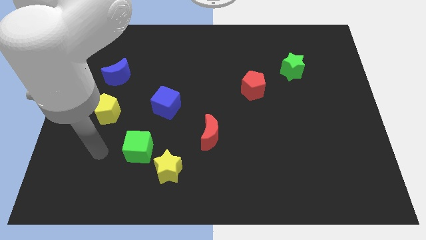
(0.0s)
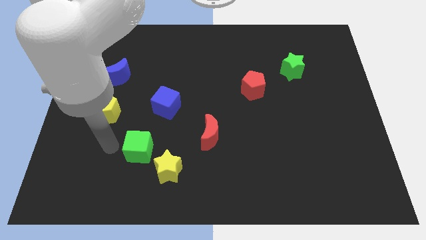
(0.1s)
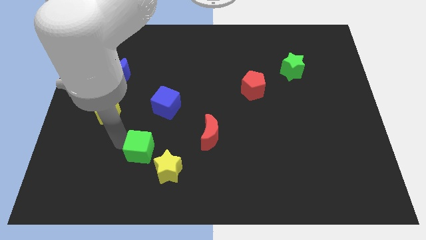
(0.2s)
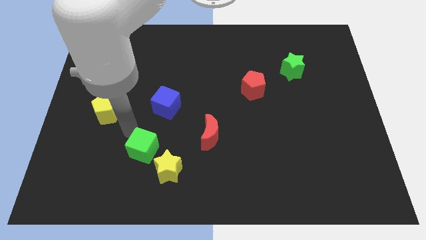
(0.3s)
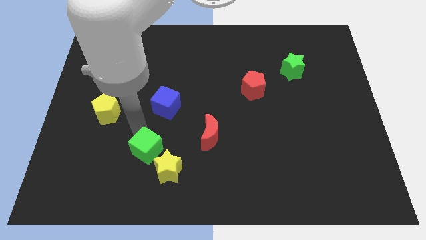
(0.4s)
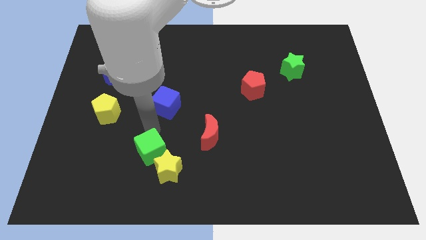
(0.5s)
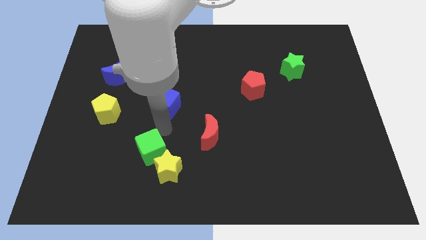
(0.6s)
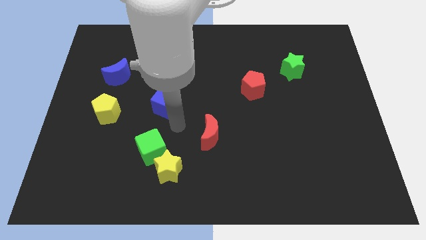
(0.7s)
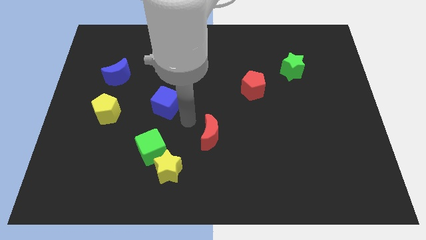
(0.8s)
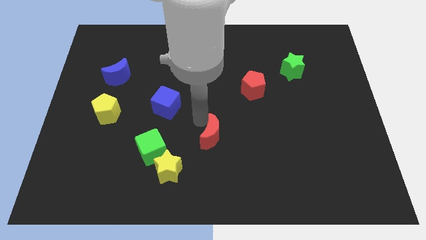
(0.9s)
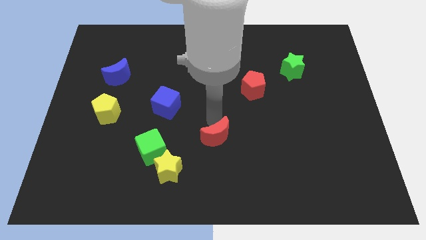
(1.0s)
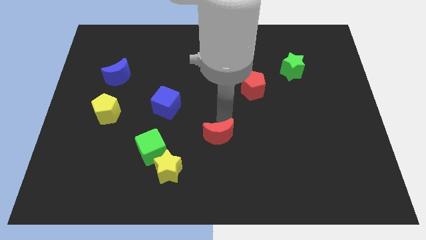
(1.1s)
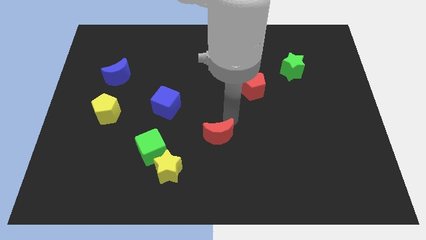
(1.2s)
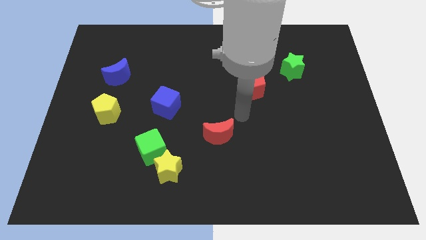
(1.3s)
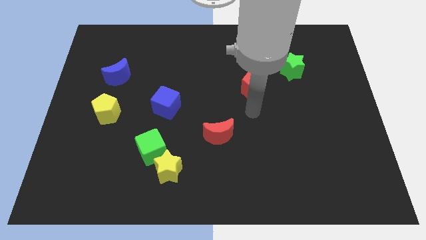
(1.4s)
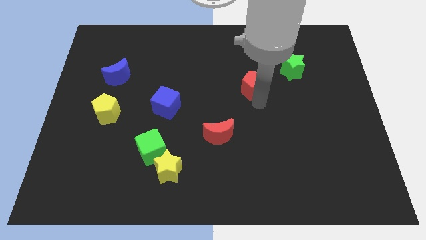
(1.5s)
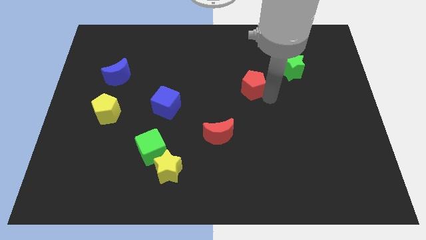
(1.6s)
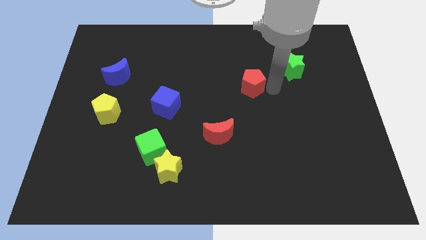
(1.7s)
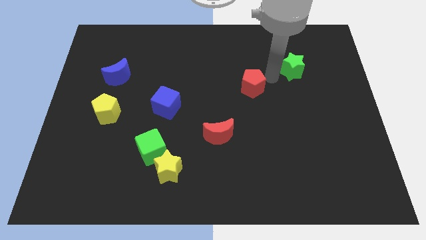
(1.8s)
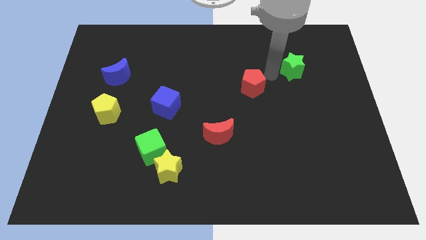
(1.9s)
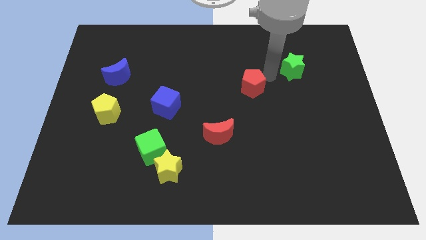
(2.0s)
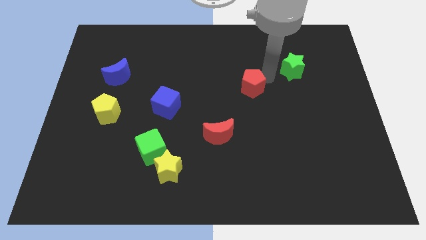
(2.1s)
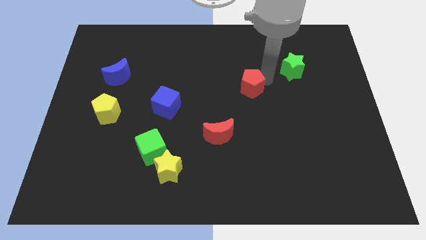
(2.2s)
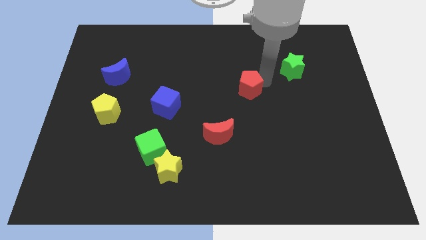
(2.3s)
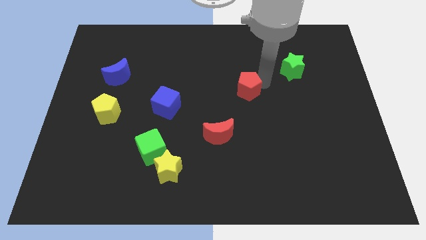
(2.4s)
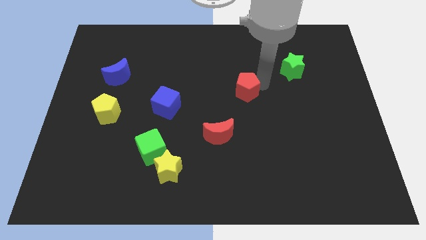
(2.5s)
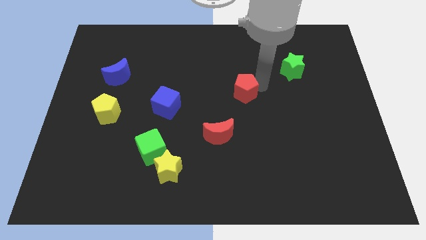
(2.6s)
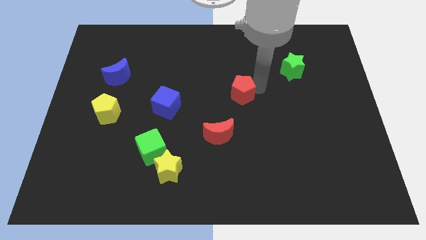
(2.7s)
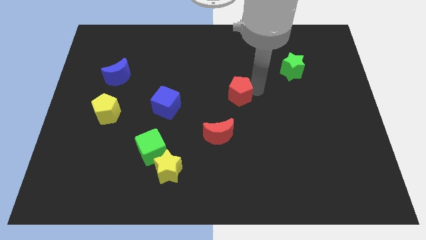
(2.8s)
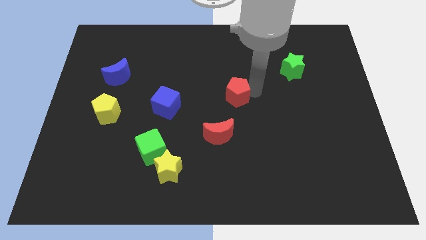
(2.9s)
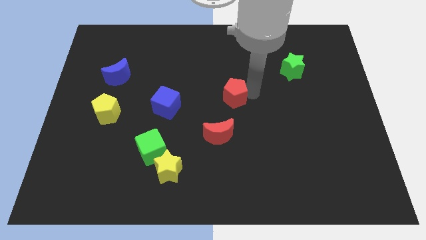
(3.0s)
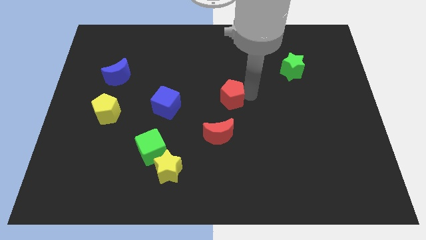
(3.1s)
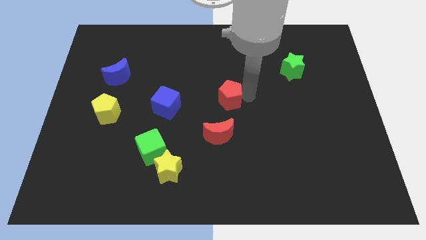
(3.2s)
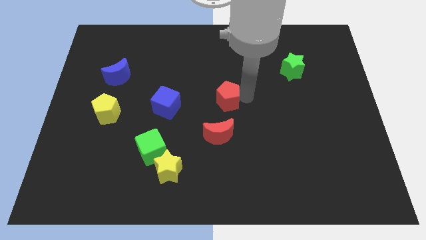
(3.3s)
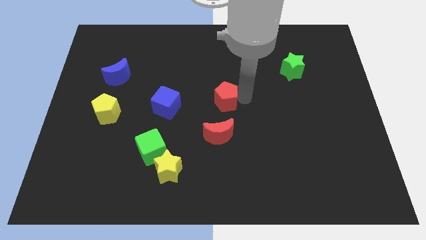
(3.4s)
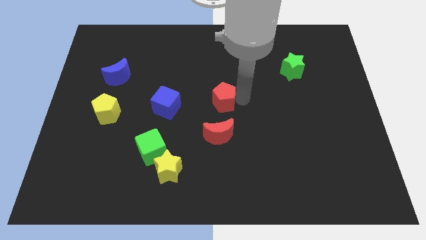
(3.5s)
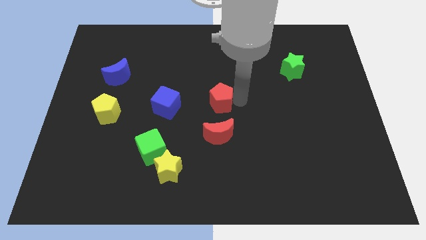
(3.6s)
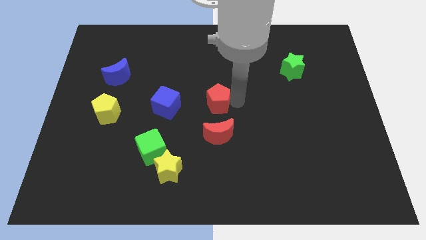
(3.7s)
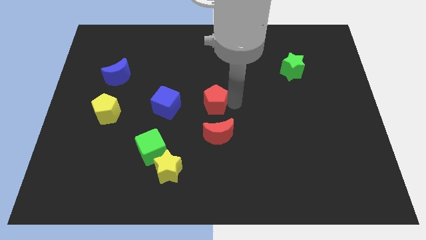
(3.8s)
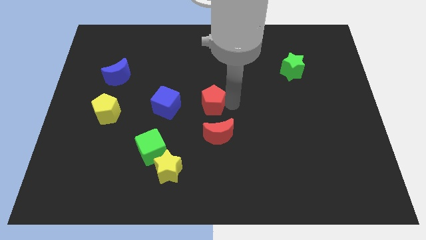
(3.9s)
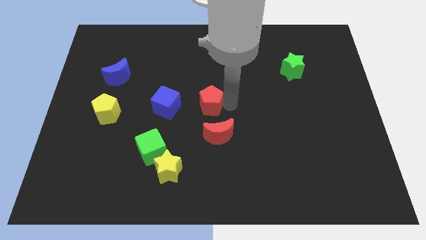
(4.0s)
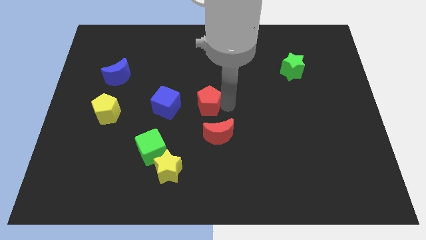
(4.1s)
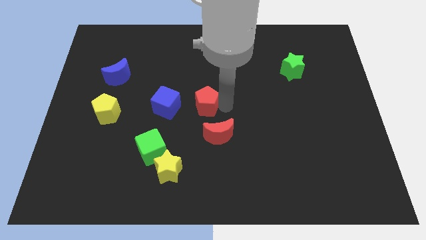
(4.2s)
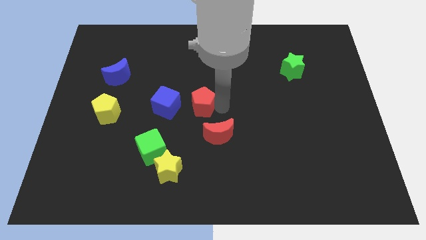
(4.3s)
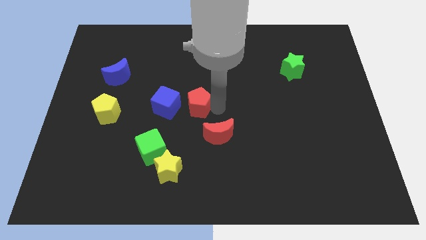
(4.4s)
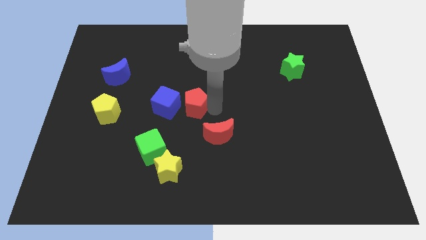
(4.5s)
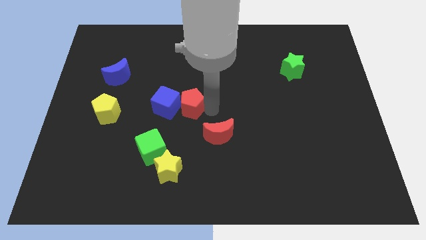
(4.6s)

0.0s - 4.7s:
put the red pentagon next to the blue cube

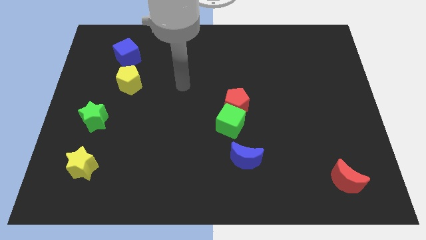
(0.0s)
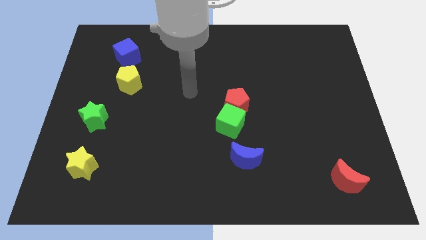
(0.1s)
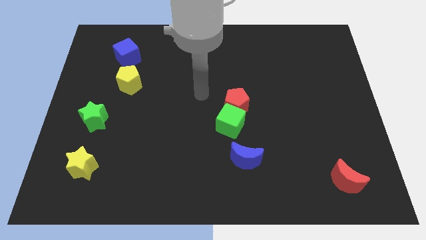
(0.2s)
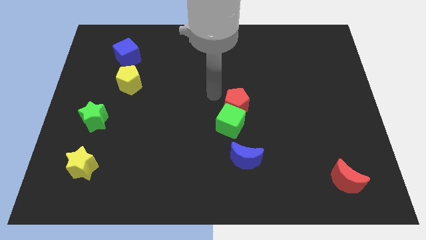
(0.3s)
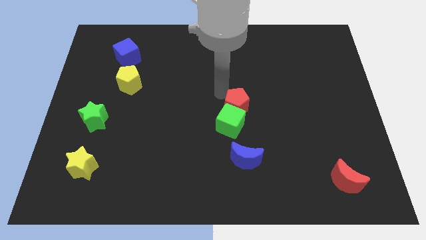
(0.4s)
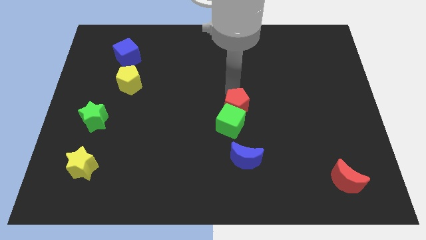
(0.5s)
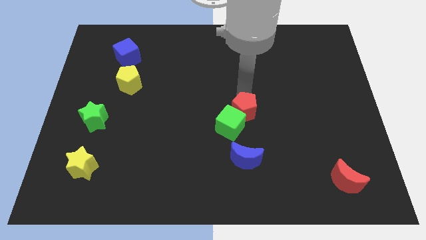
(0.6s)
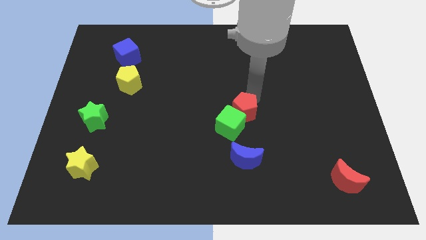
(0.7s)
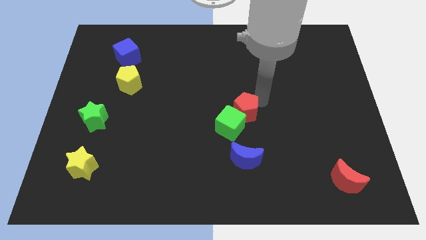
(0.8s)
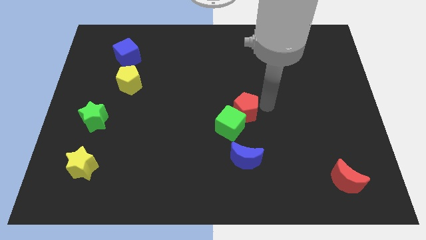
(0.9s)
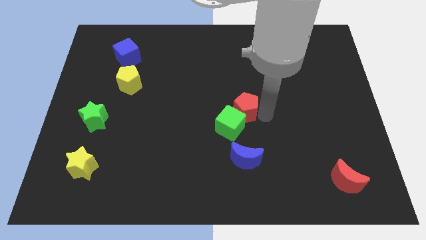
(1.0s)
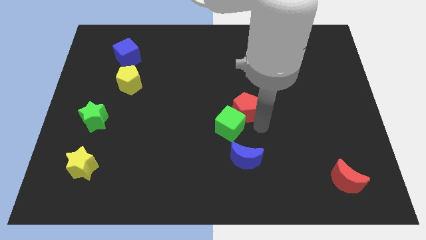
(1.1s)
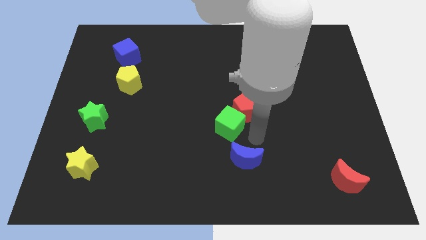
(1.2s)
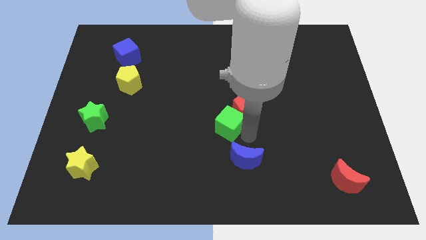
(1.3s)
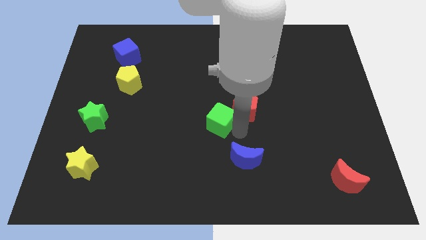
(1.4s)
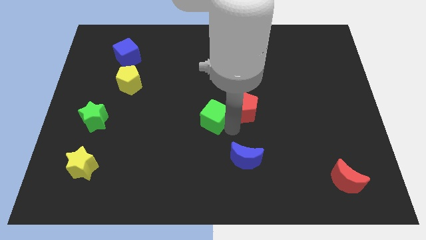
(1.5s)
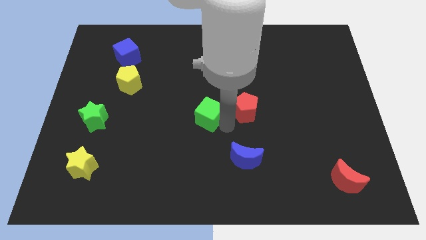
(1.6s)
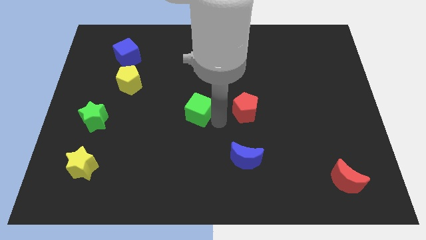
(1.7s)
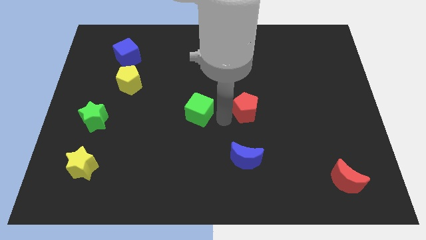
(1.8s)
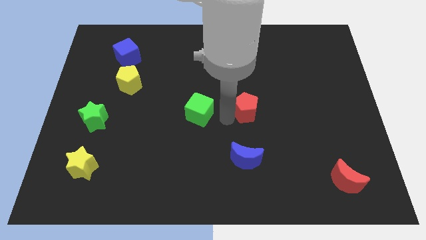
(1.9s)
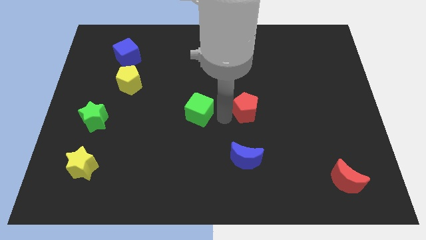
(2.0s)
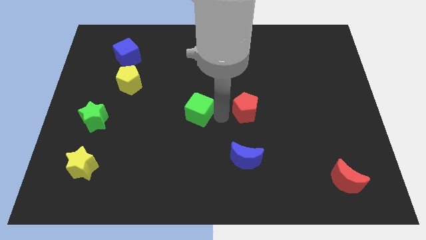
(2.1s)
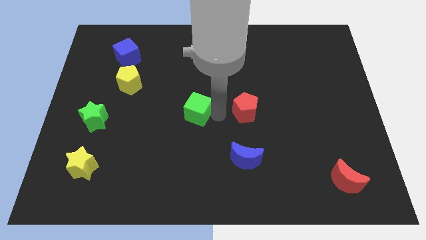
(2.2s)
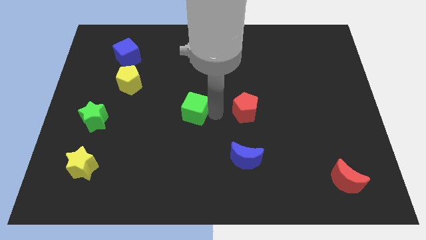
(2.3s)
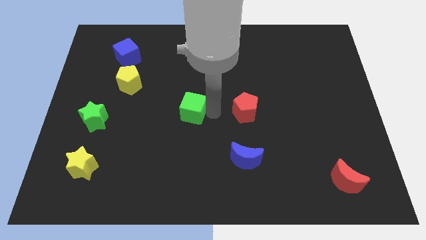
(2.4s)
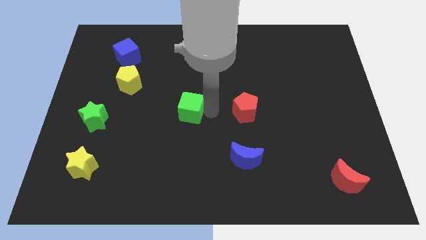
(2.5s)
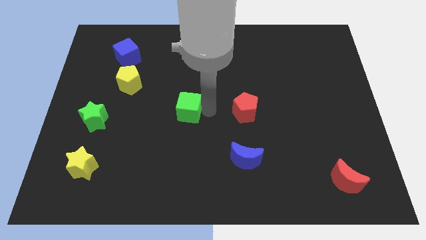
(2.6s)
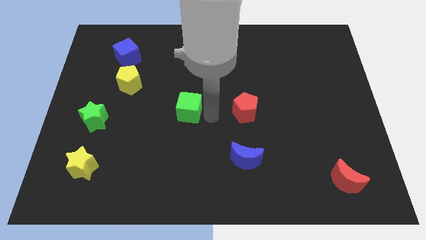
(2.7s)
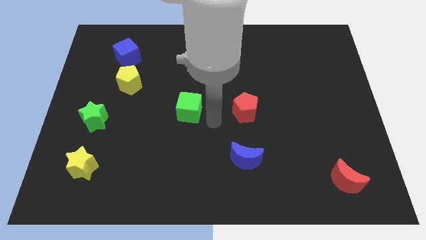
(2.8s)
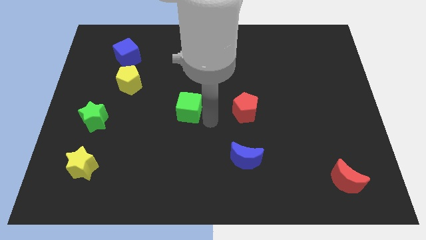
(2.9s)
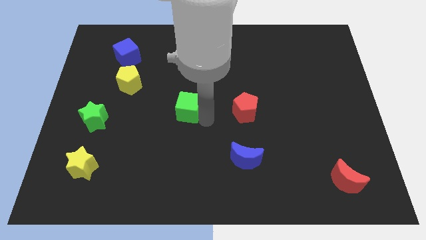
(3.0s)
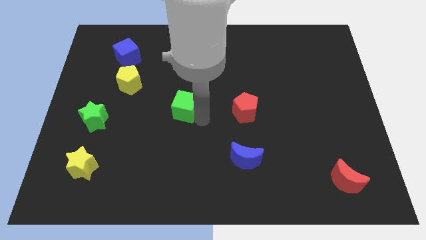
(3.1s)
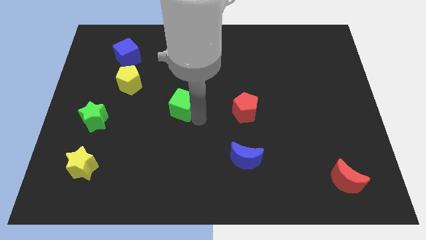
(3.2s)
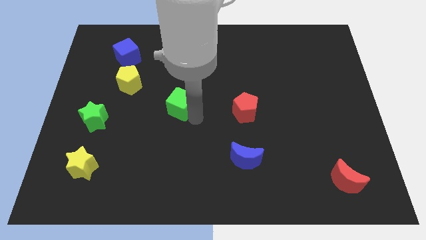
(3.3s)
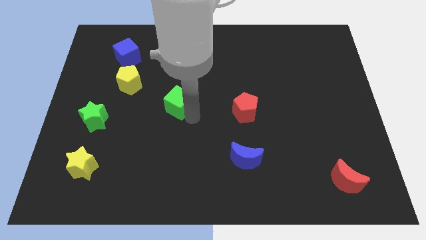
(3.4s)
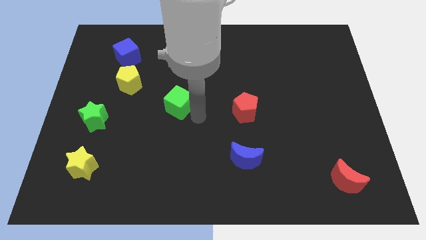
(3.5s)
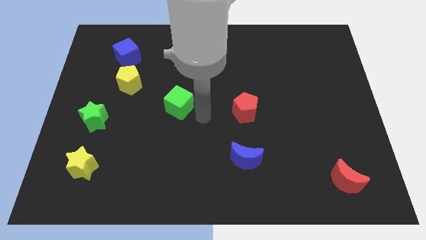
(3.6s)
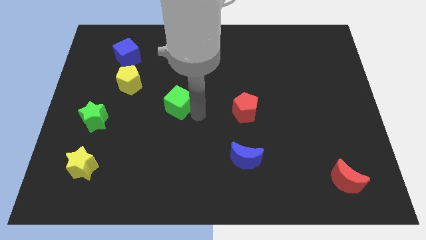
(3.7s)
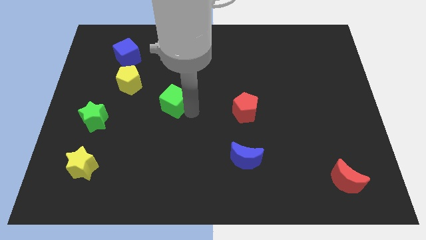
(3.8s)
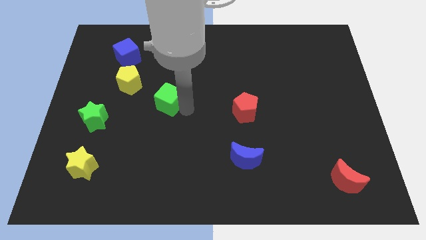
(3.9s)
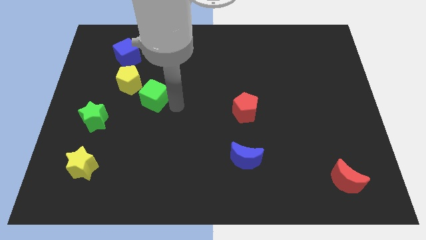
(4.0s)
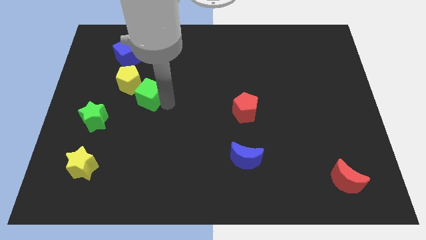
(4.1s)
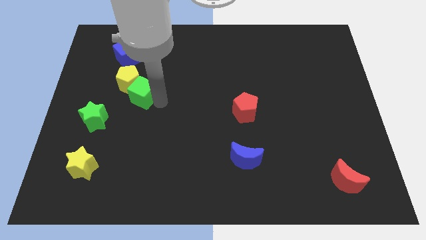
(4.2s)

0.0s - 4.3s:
put the green cube close to the yellow pentagon
